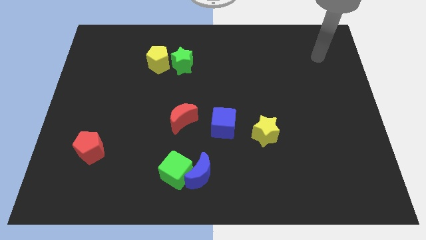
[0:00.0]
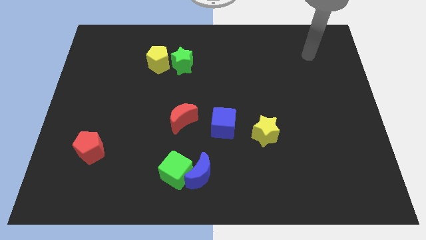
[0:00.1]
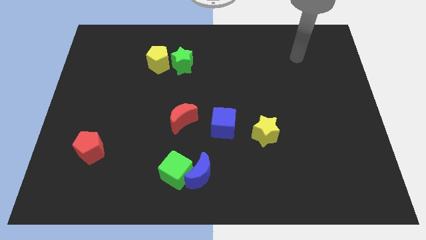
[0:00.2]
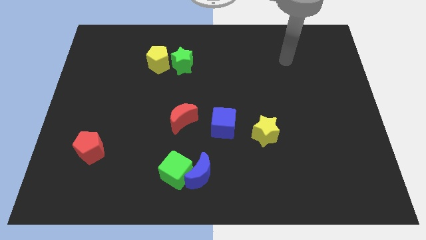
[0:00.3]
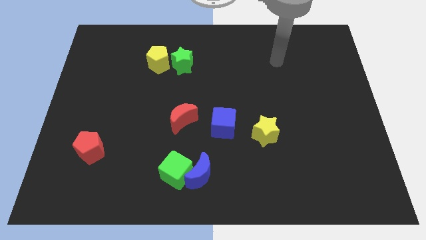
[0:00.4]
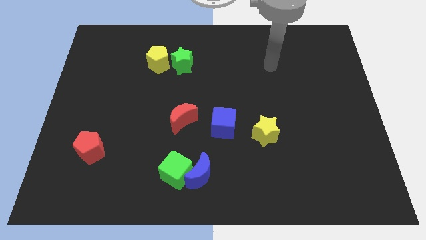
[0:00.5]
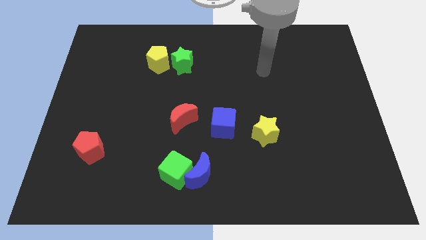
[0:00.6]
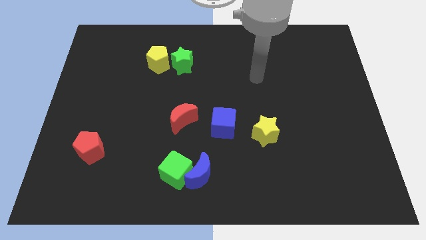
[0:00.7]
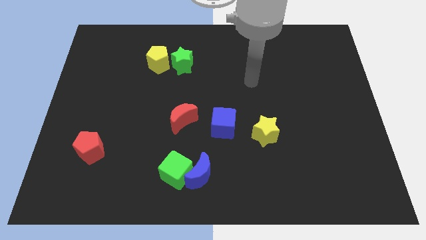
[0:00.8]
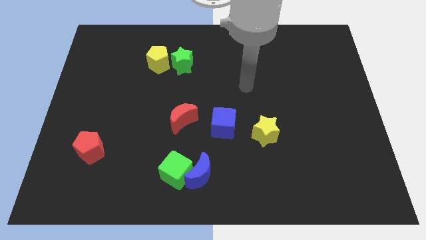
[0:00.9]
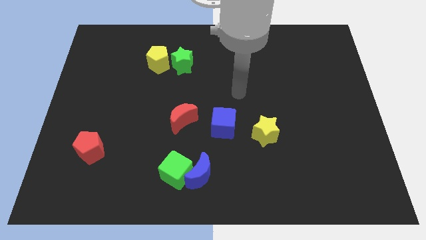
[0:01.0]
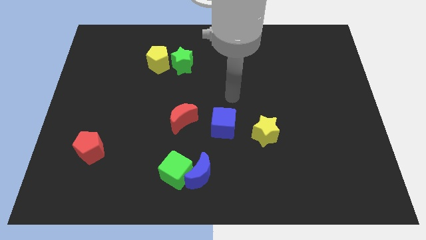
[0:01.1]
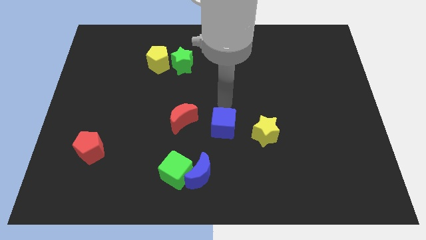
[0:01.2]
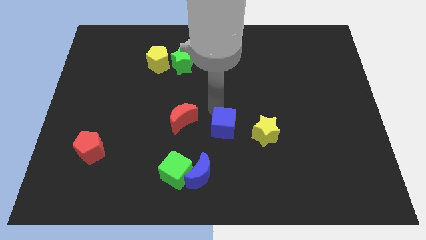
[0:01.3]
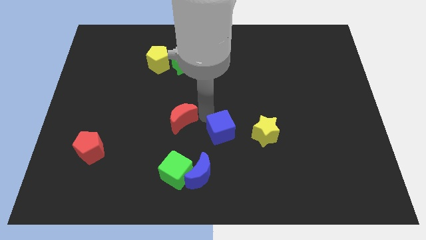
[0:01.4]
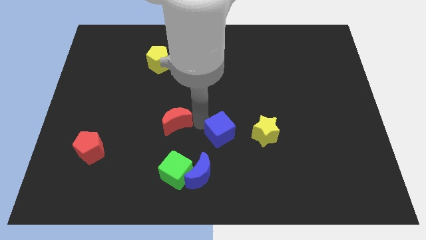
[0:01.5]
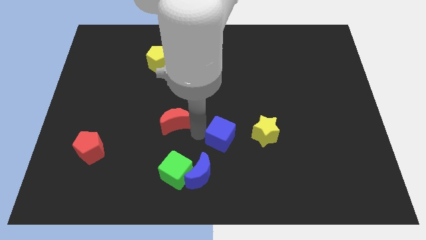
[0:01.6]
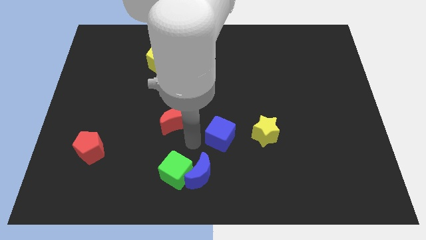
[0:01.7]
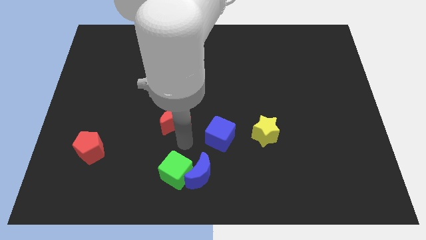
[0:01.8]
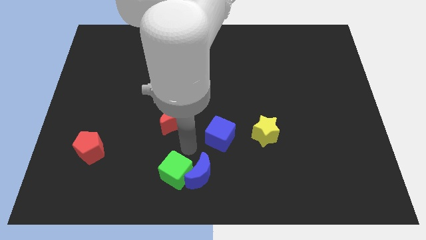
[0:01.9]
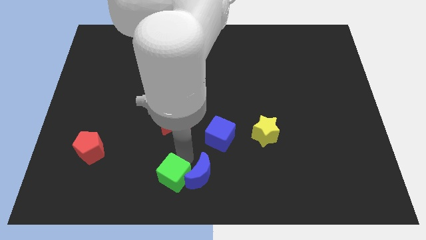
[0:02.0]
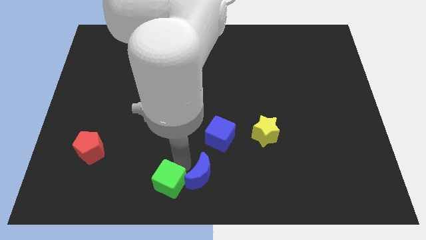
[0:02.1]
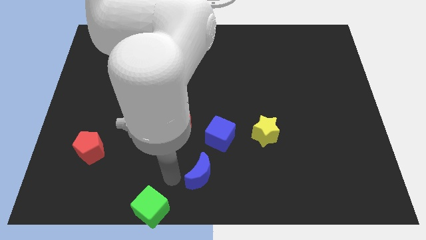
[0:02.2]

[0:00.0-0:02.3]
move the blue moon away from the green cube

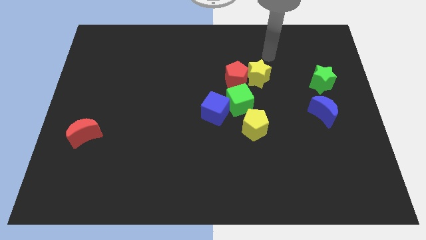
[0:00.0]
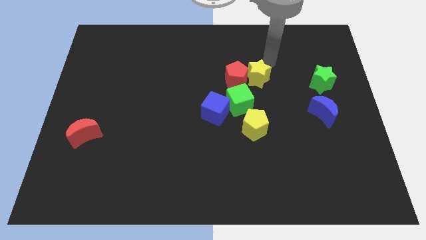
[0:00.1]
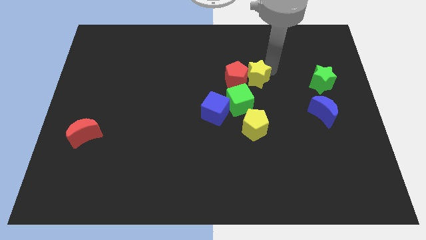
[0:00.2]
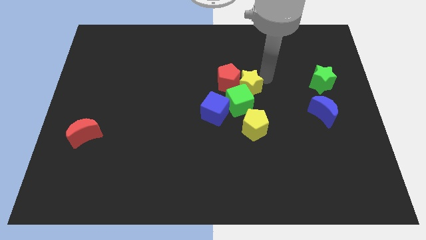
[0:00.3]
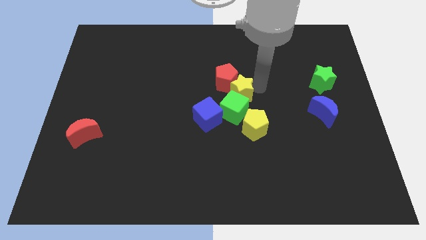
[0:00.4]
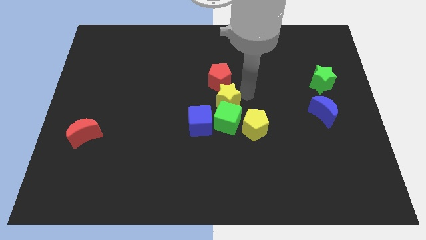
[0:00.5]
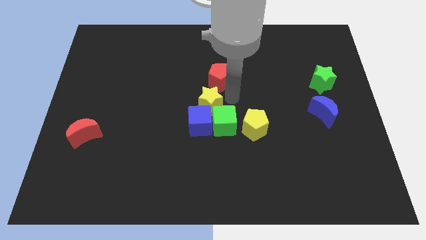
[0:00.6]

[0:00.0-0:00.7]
pull the red pentagon apart from the yellow star and green cube

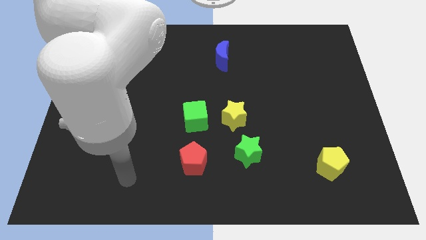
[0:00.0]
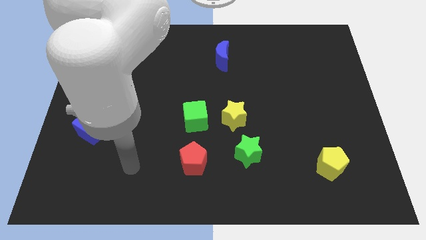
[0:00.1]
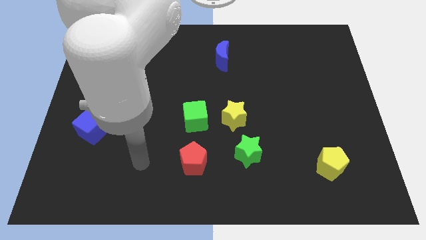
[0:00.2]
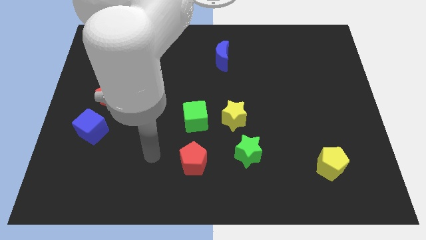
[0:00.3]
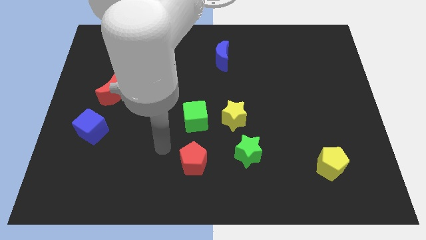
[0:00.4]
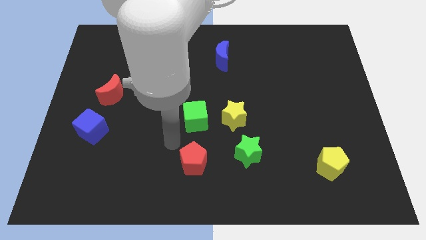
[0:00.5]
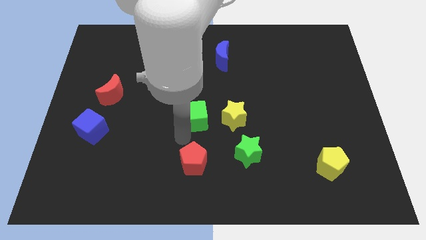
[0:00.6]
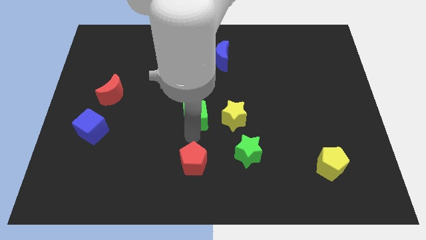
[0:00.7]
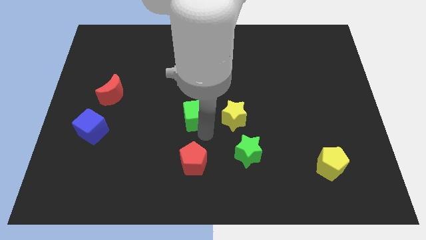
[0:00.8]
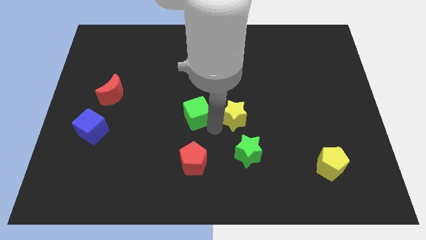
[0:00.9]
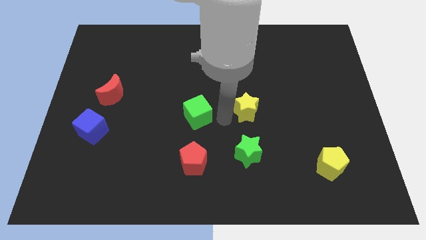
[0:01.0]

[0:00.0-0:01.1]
separate the green cube from the yellow star

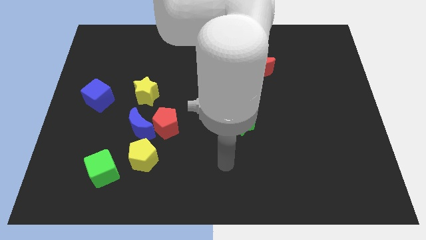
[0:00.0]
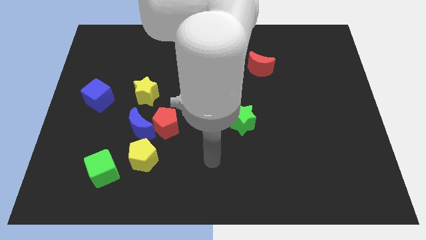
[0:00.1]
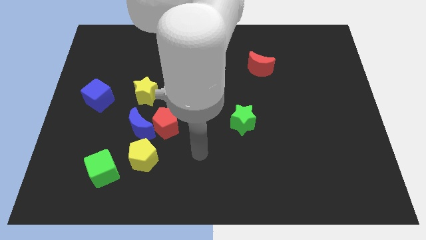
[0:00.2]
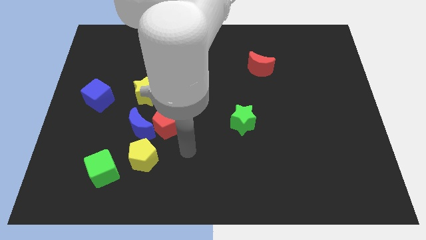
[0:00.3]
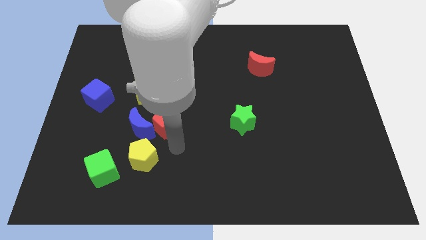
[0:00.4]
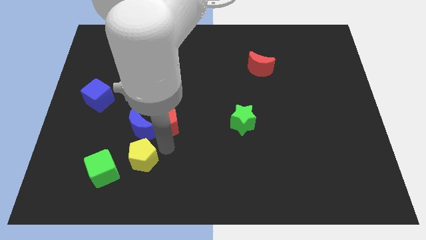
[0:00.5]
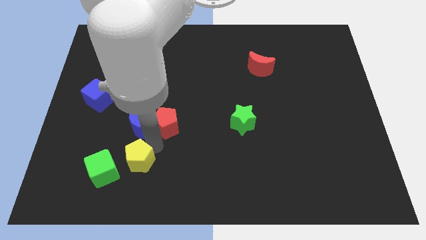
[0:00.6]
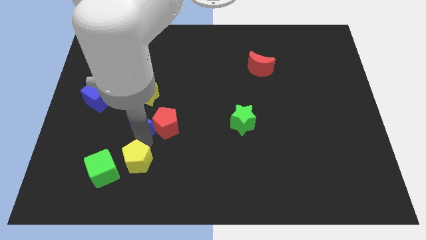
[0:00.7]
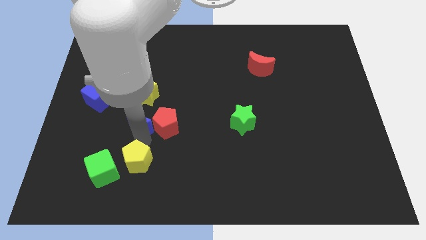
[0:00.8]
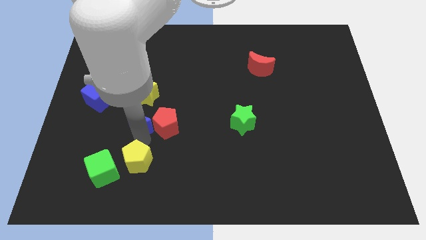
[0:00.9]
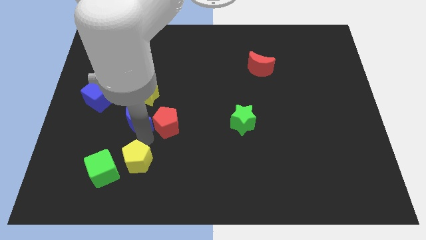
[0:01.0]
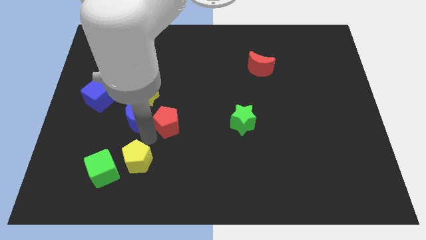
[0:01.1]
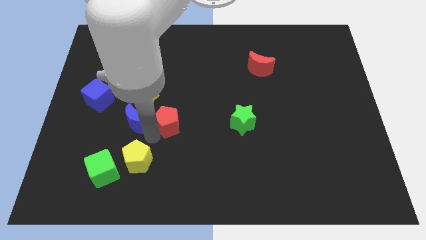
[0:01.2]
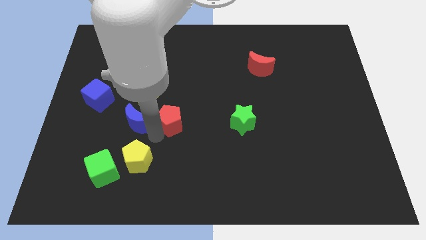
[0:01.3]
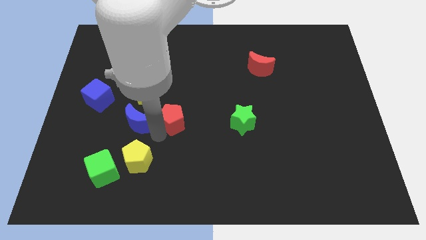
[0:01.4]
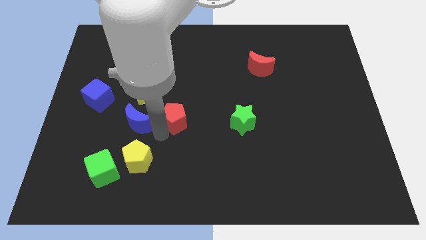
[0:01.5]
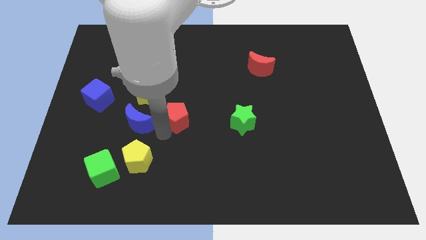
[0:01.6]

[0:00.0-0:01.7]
move the red pentagon away from the blue moon and yellow pentagon

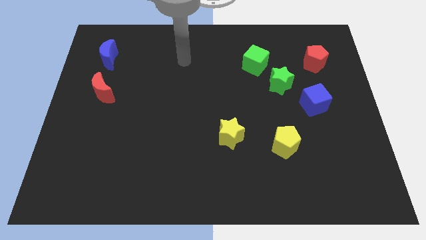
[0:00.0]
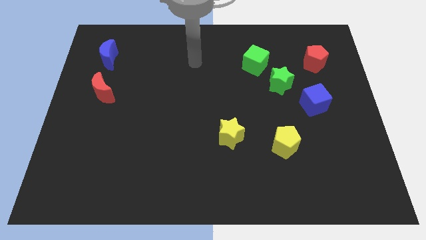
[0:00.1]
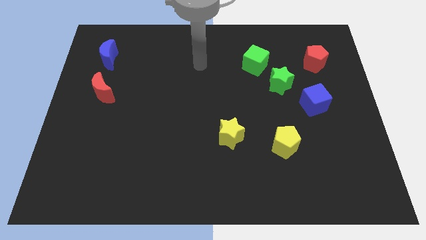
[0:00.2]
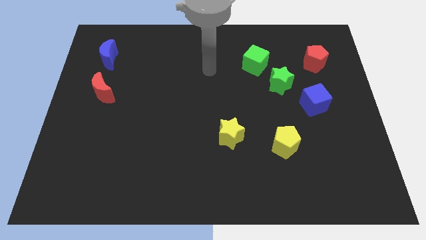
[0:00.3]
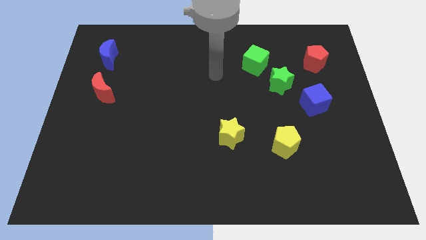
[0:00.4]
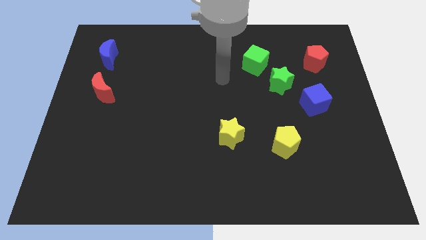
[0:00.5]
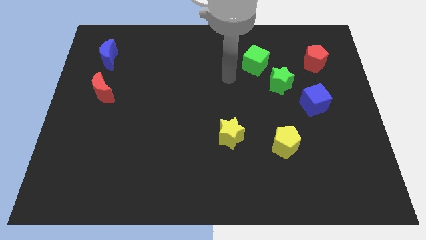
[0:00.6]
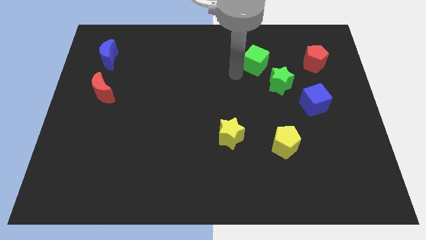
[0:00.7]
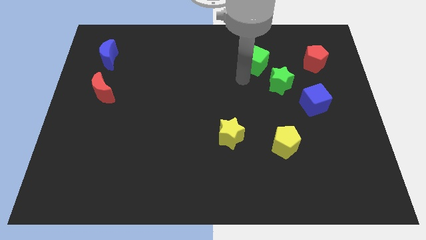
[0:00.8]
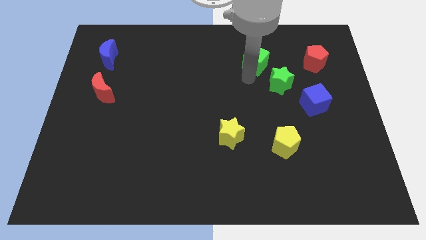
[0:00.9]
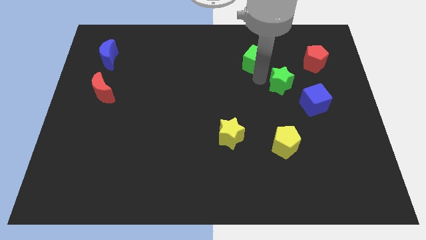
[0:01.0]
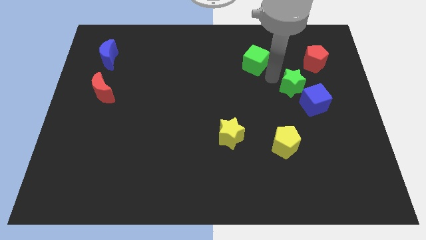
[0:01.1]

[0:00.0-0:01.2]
separate the green cube from the green star

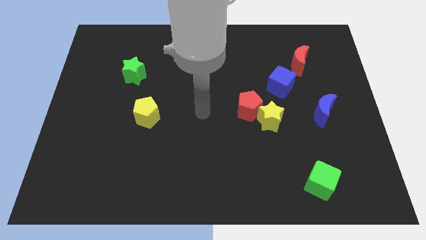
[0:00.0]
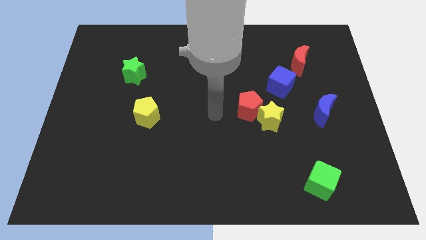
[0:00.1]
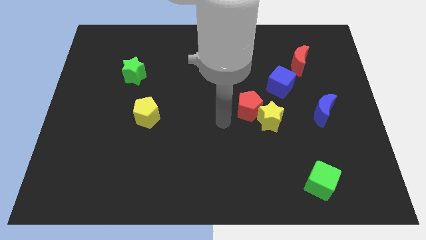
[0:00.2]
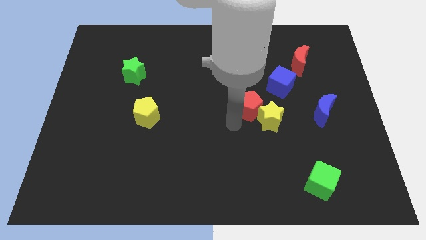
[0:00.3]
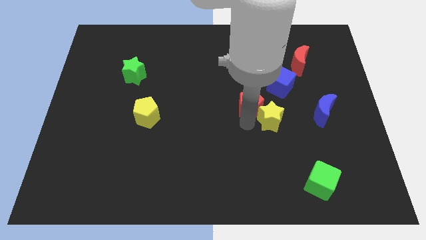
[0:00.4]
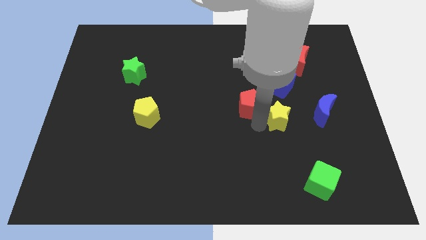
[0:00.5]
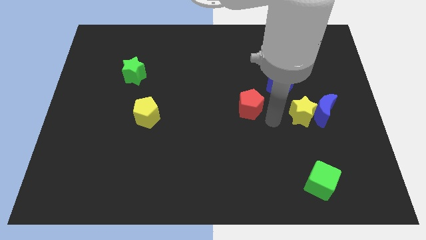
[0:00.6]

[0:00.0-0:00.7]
move the red pentagon away from the yellow star

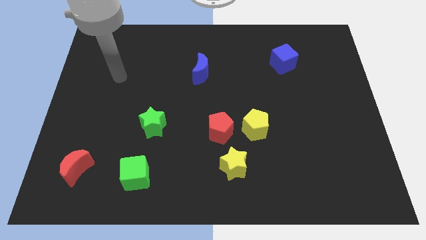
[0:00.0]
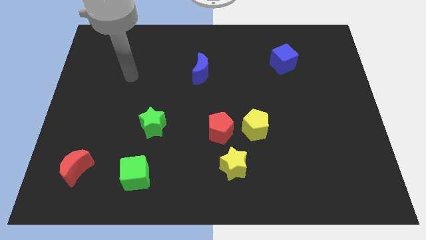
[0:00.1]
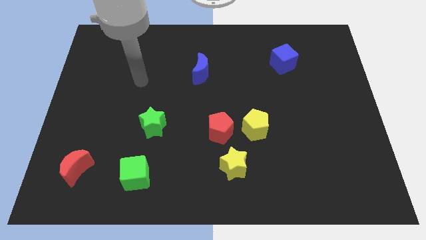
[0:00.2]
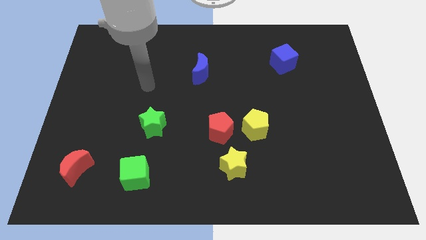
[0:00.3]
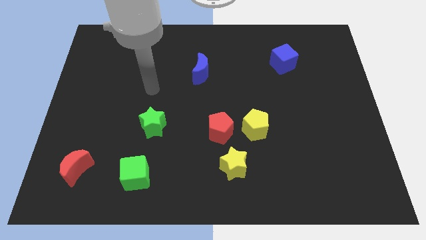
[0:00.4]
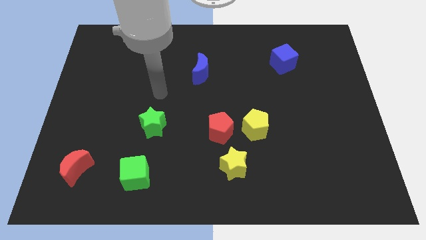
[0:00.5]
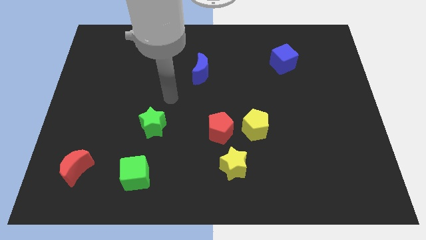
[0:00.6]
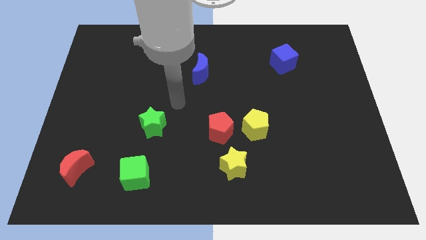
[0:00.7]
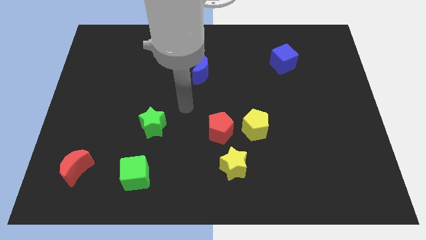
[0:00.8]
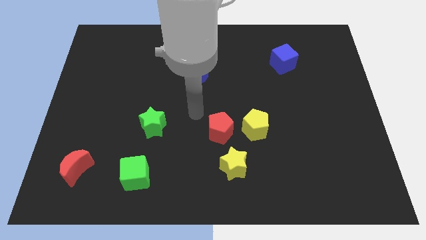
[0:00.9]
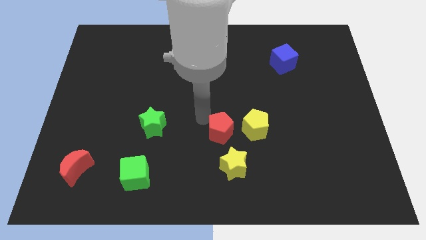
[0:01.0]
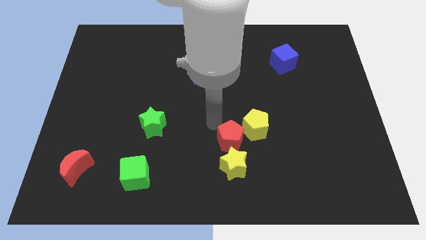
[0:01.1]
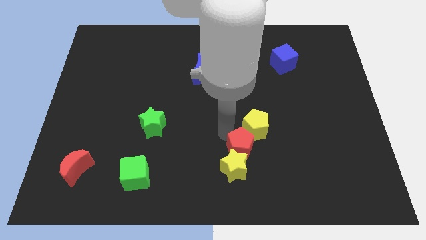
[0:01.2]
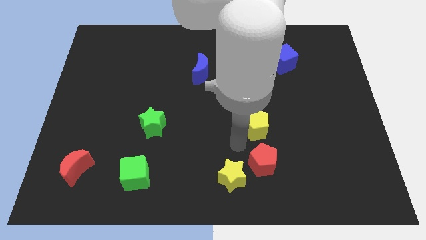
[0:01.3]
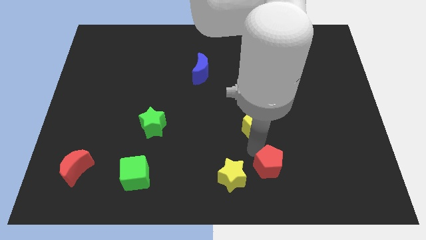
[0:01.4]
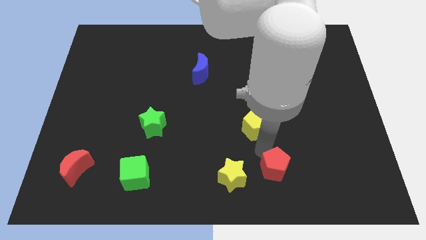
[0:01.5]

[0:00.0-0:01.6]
separate the yellow pentagon from the red pentagon

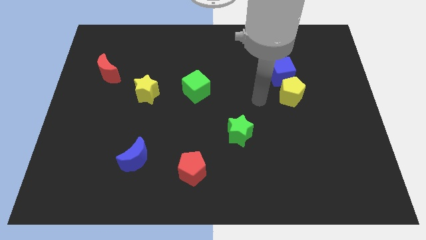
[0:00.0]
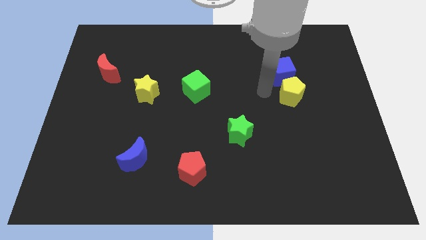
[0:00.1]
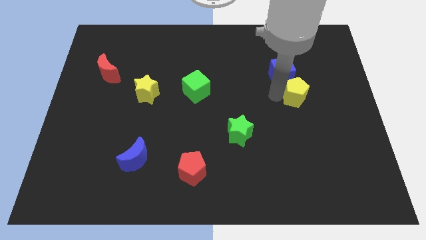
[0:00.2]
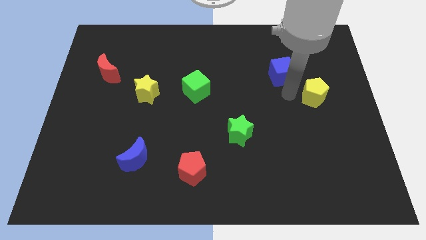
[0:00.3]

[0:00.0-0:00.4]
move the blue cube away from the yellow pentagon
